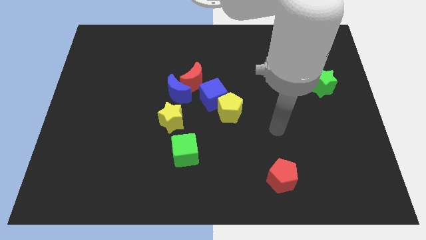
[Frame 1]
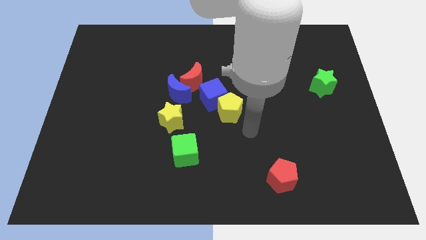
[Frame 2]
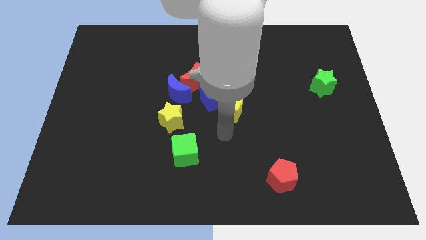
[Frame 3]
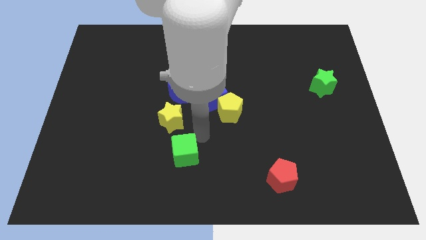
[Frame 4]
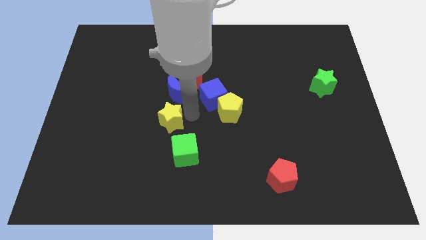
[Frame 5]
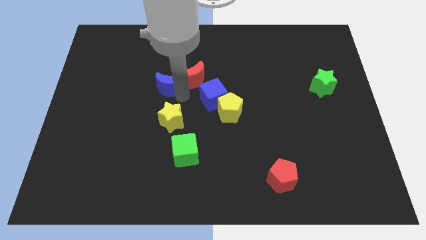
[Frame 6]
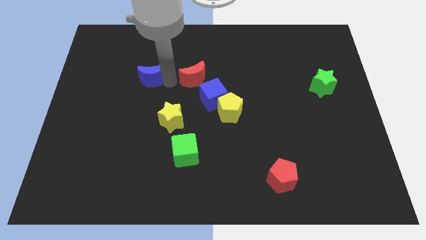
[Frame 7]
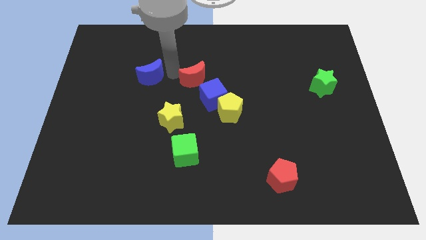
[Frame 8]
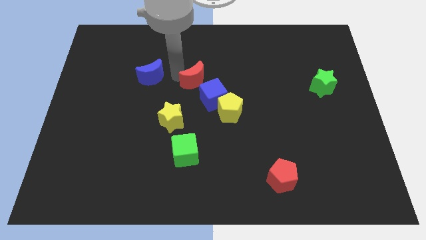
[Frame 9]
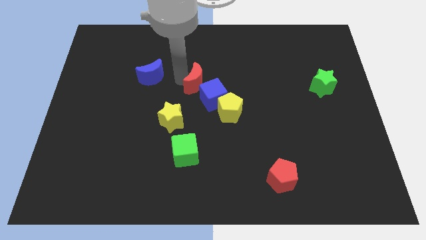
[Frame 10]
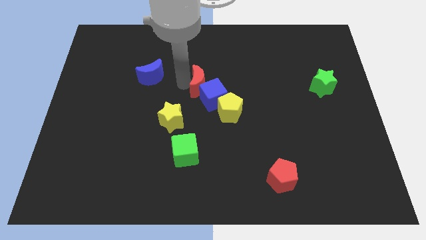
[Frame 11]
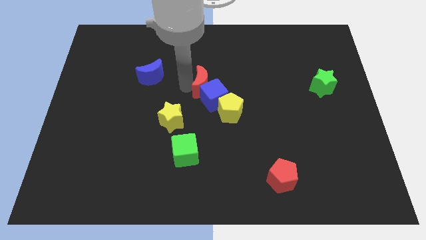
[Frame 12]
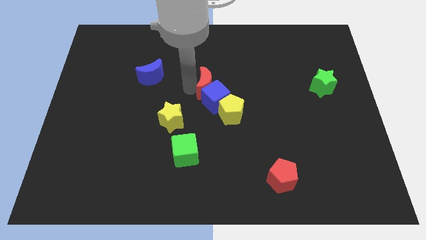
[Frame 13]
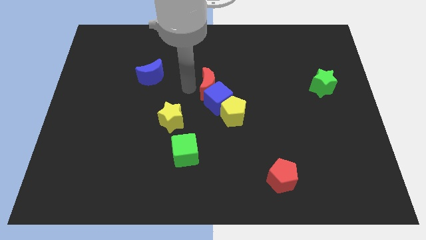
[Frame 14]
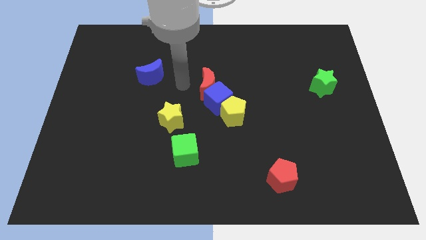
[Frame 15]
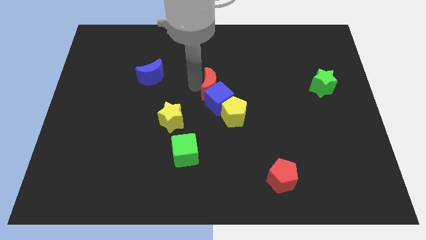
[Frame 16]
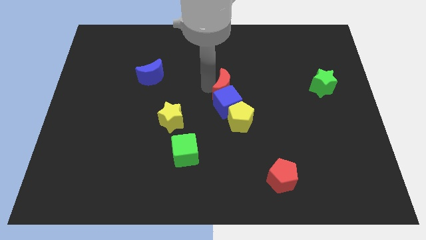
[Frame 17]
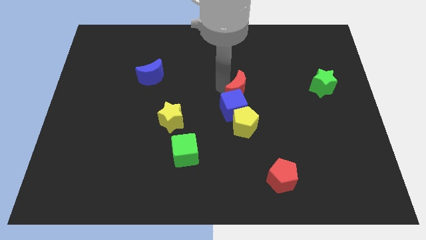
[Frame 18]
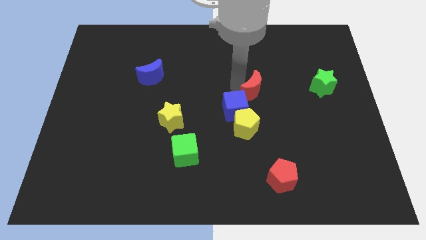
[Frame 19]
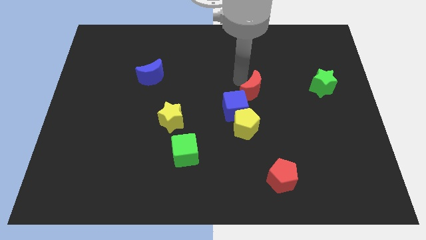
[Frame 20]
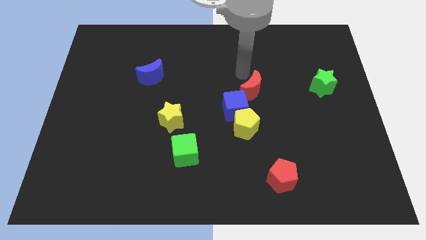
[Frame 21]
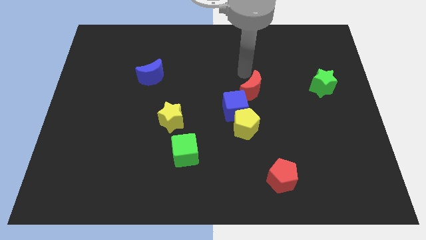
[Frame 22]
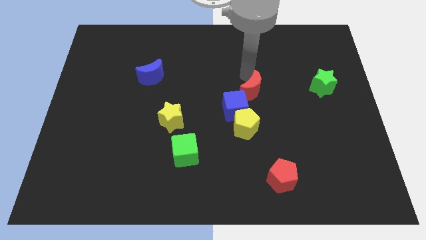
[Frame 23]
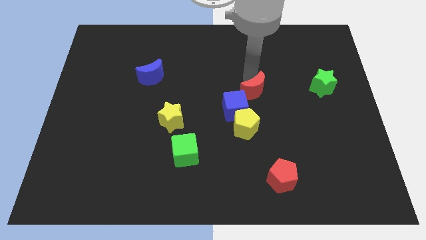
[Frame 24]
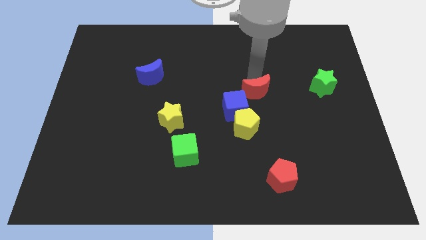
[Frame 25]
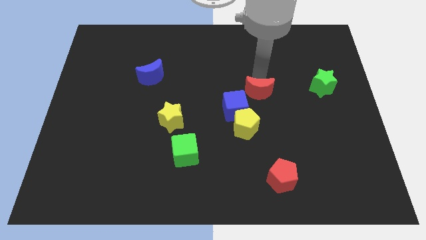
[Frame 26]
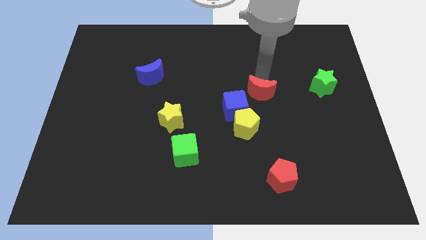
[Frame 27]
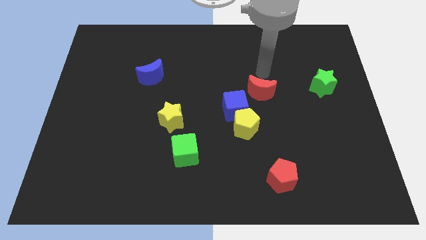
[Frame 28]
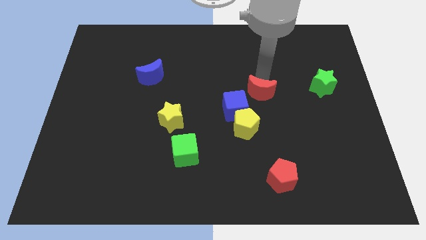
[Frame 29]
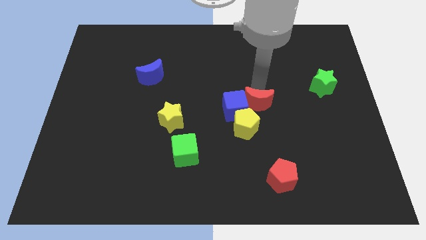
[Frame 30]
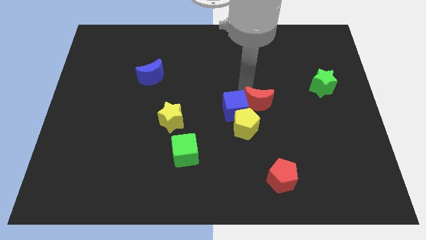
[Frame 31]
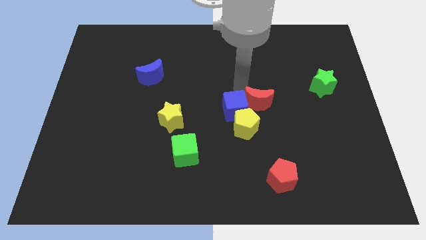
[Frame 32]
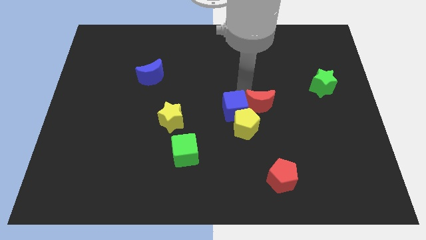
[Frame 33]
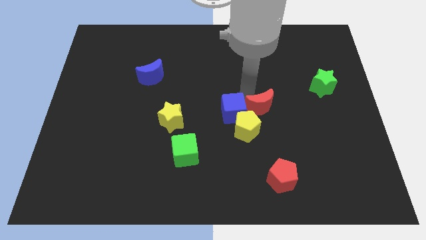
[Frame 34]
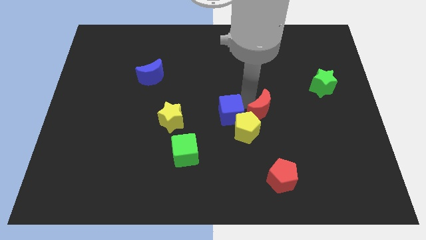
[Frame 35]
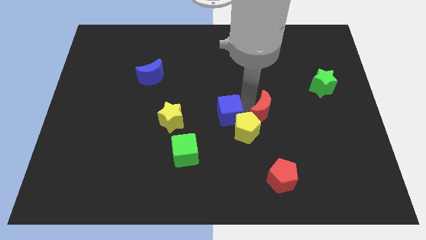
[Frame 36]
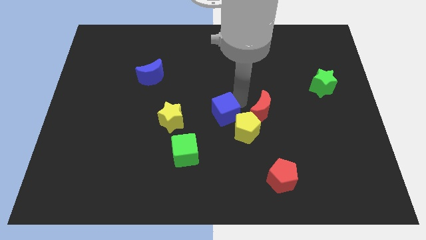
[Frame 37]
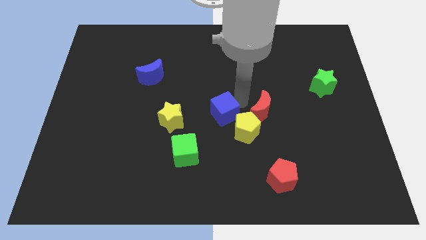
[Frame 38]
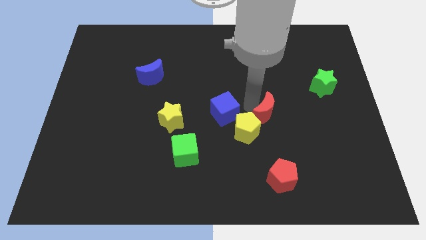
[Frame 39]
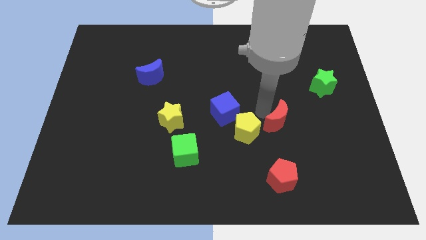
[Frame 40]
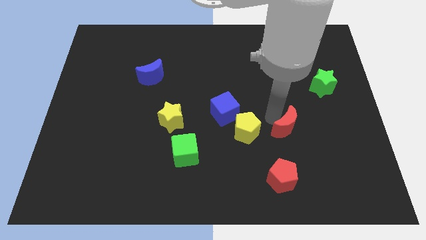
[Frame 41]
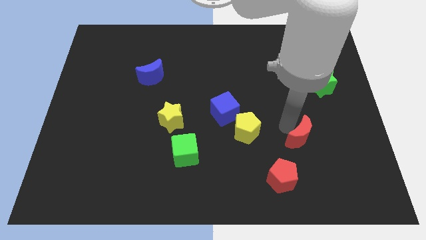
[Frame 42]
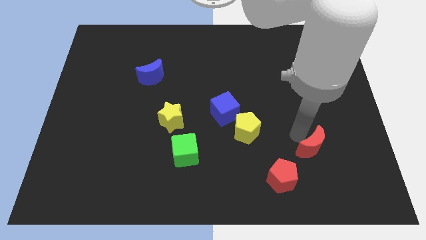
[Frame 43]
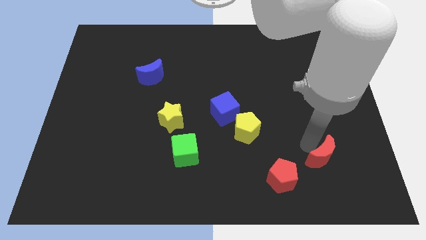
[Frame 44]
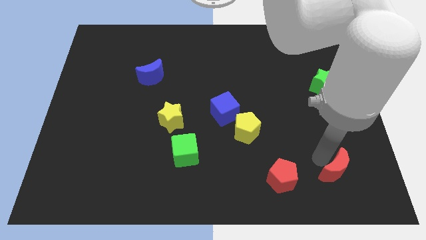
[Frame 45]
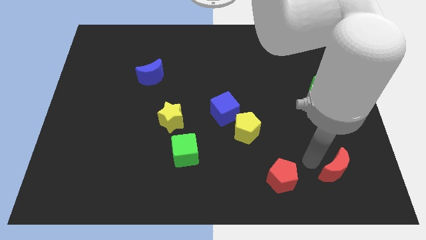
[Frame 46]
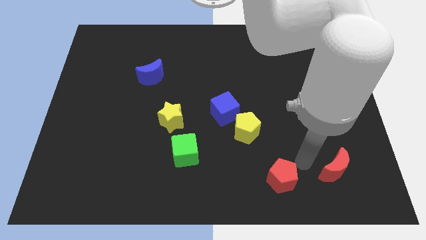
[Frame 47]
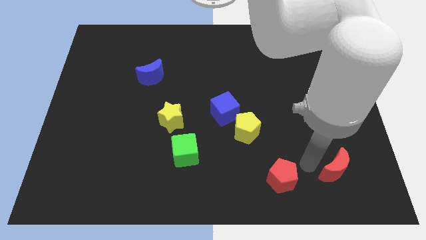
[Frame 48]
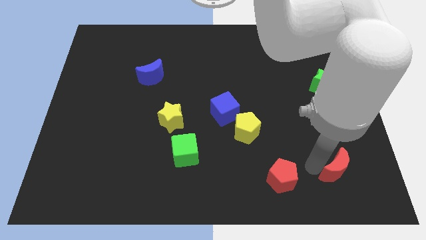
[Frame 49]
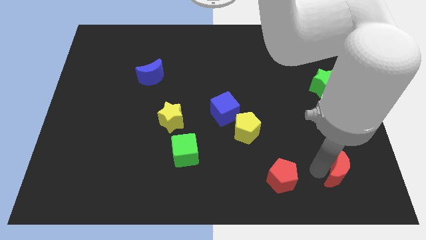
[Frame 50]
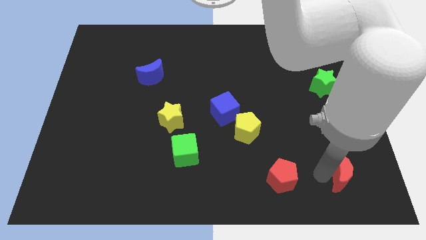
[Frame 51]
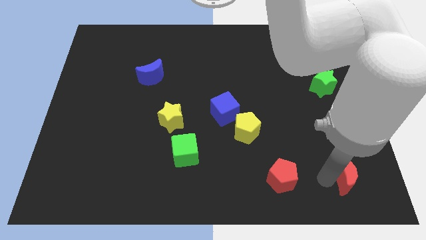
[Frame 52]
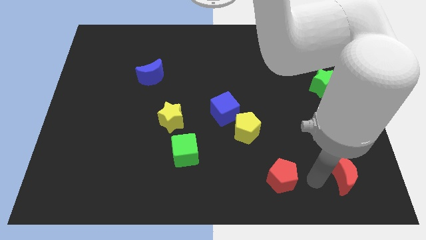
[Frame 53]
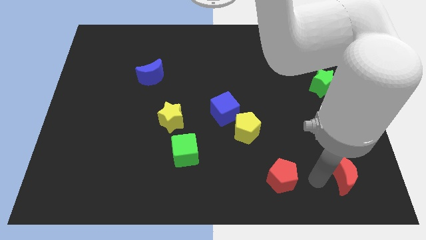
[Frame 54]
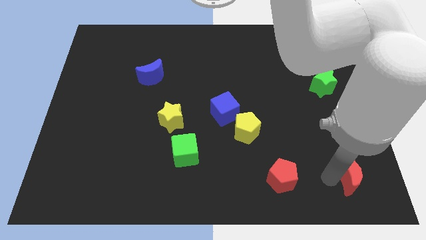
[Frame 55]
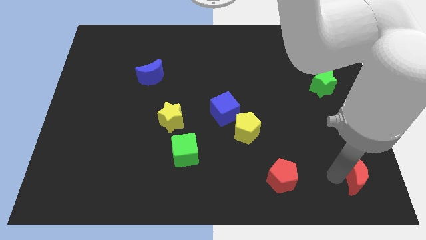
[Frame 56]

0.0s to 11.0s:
move the red moon to the bottom right corner
